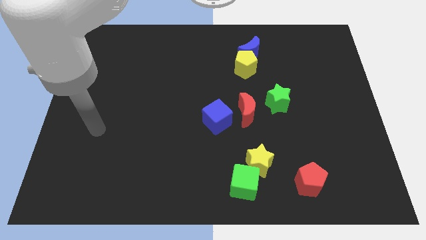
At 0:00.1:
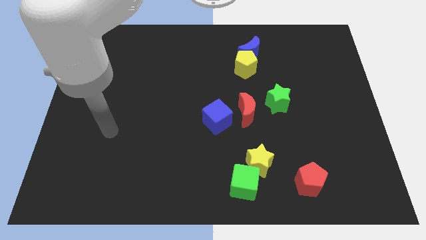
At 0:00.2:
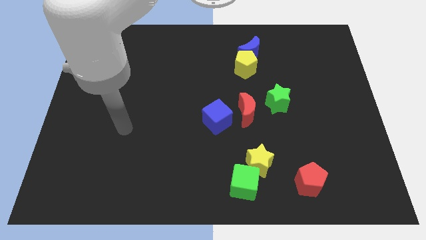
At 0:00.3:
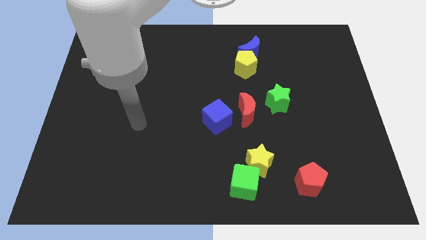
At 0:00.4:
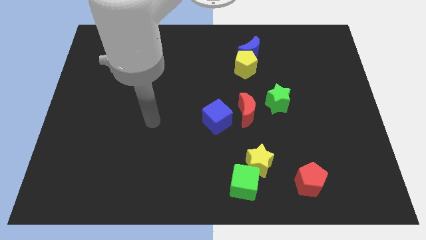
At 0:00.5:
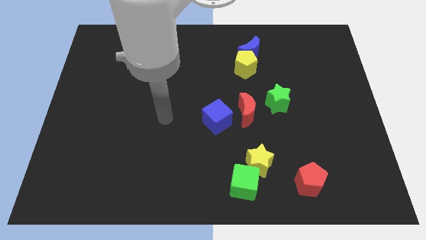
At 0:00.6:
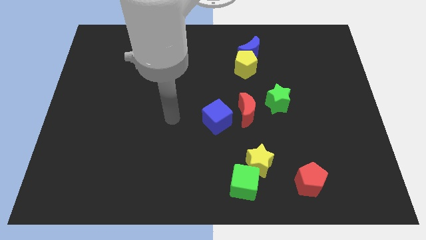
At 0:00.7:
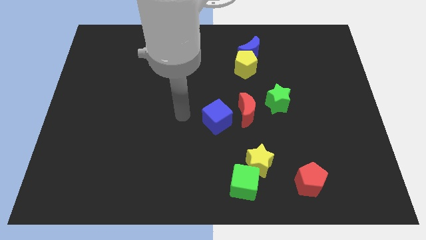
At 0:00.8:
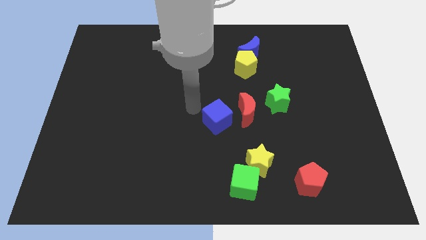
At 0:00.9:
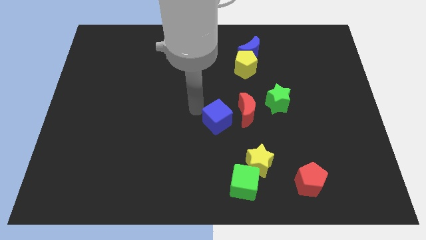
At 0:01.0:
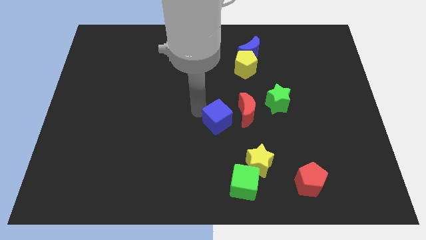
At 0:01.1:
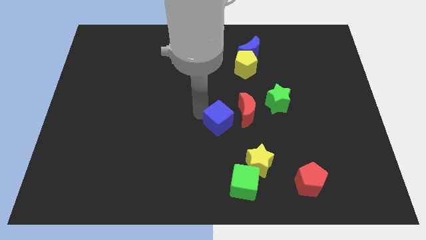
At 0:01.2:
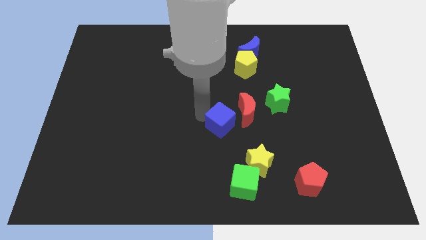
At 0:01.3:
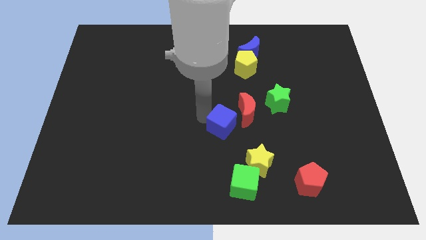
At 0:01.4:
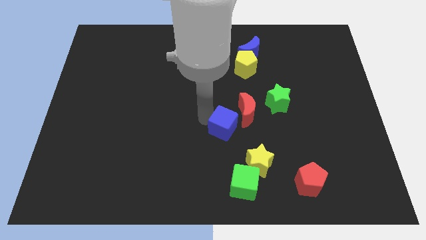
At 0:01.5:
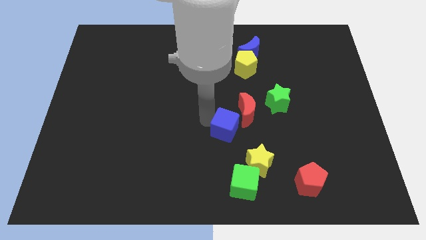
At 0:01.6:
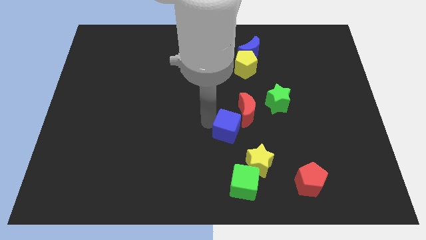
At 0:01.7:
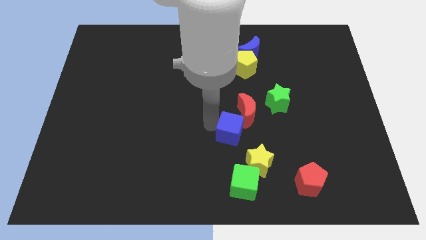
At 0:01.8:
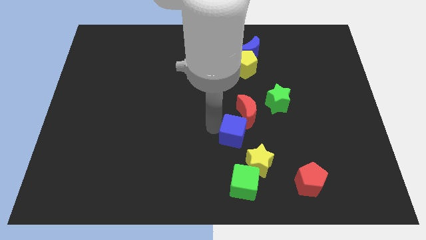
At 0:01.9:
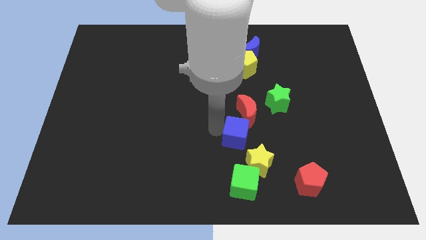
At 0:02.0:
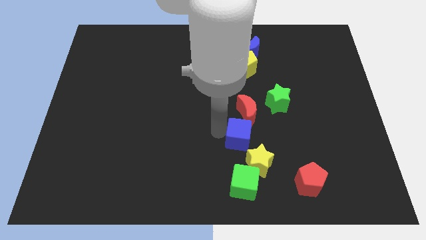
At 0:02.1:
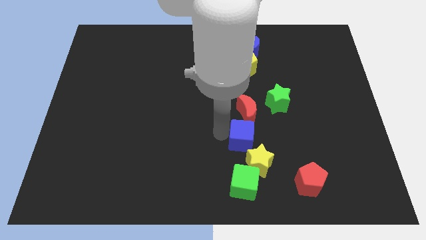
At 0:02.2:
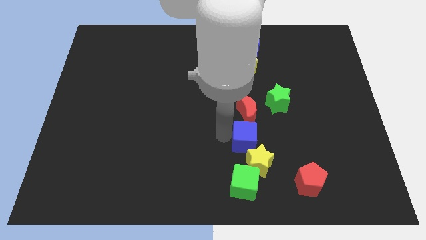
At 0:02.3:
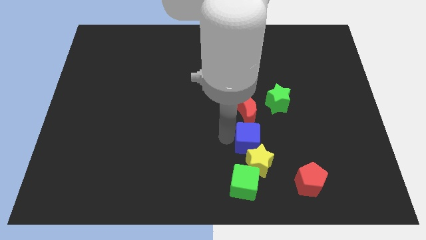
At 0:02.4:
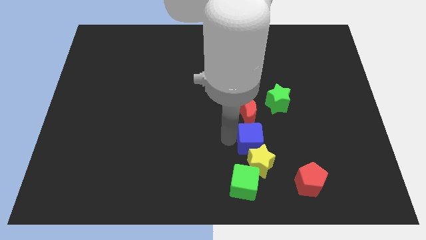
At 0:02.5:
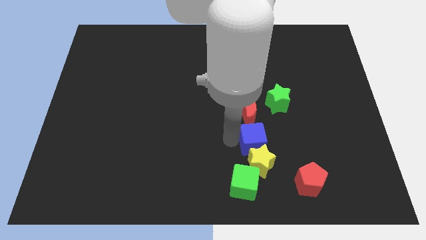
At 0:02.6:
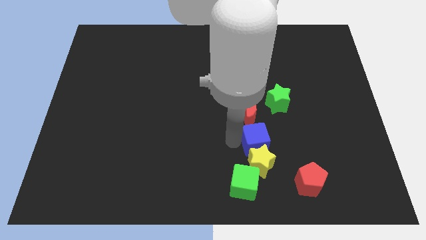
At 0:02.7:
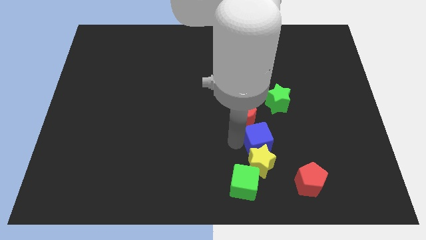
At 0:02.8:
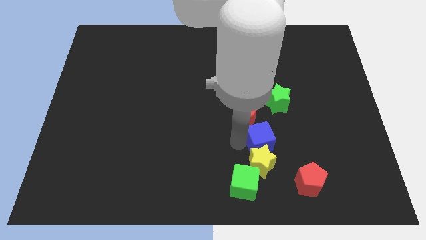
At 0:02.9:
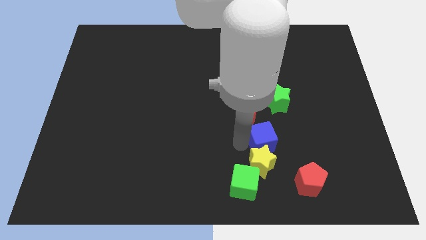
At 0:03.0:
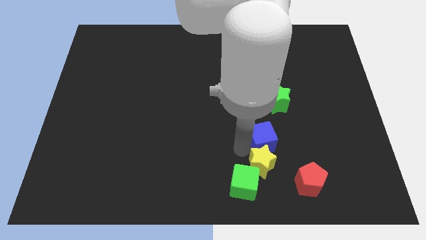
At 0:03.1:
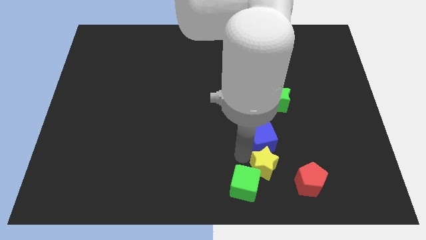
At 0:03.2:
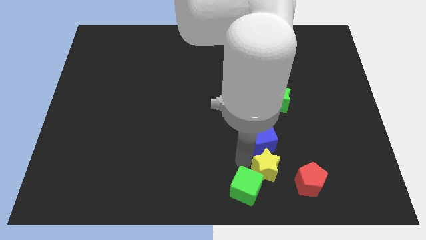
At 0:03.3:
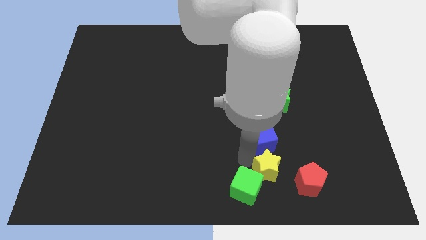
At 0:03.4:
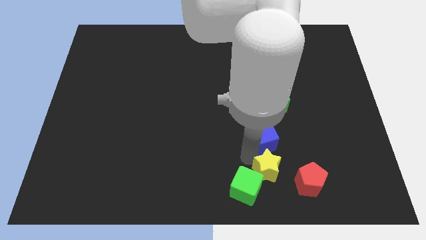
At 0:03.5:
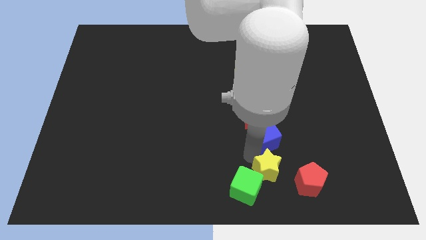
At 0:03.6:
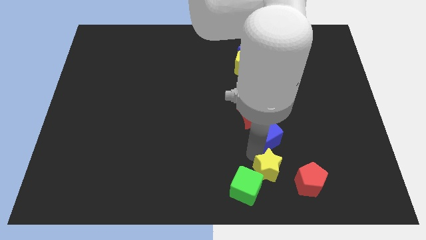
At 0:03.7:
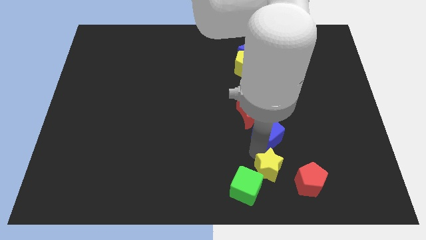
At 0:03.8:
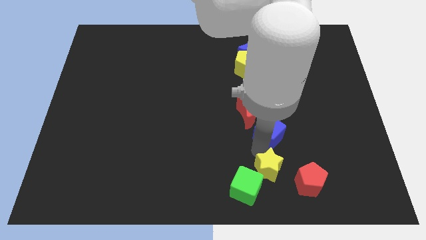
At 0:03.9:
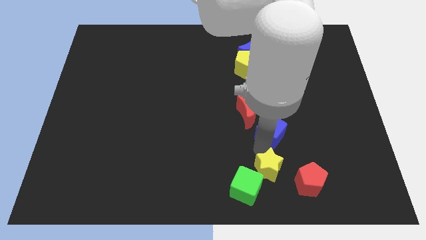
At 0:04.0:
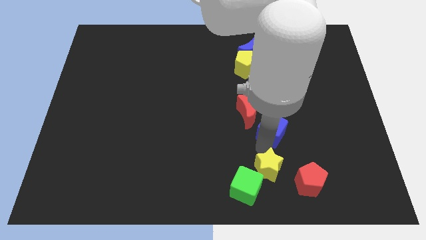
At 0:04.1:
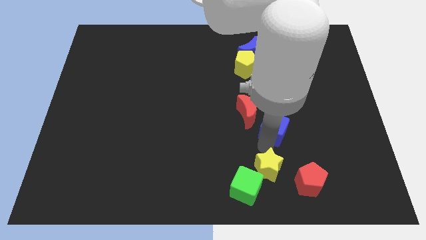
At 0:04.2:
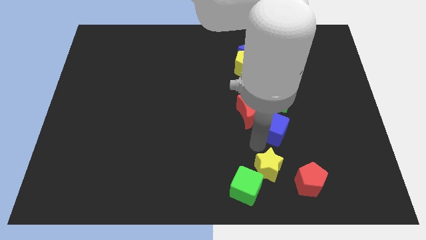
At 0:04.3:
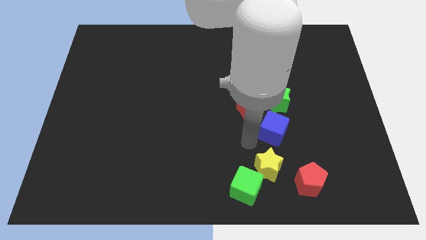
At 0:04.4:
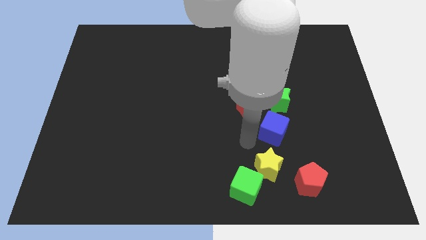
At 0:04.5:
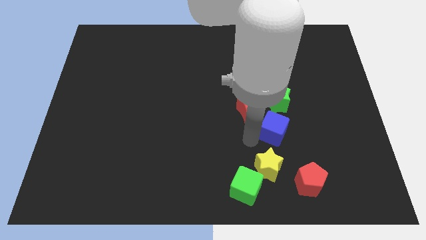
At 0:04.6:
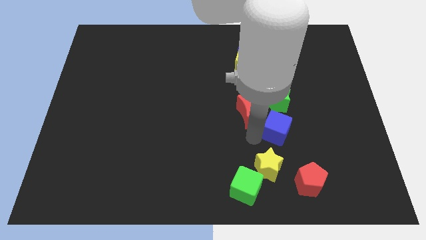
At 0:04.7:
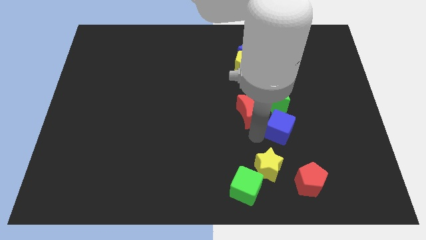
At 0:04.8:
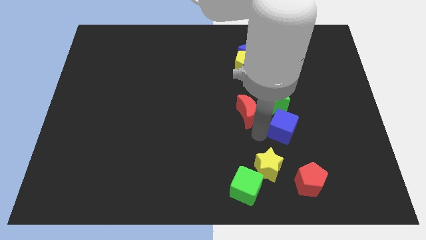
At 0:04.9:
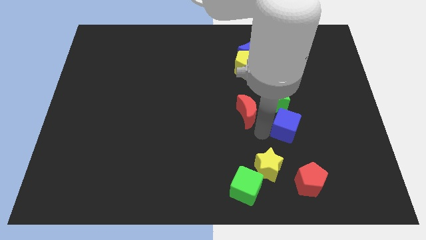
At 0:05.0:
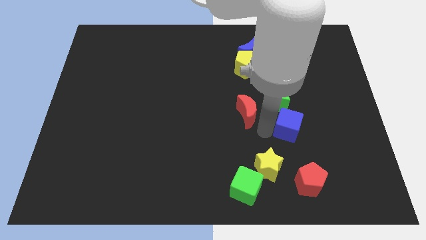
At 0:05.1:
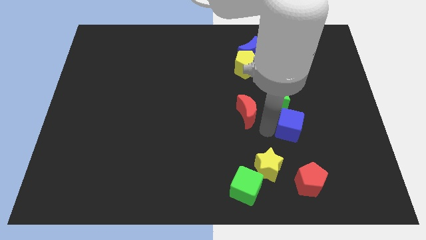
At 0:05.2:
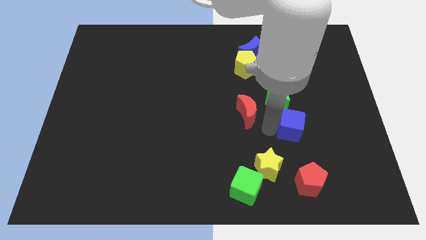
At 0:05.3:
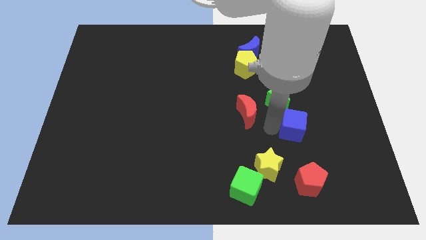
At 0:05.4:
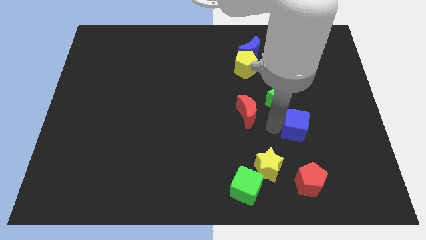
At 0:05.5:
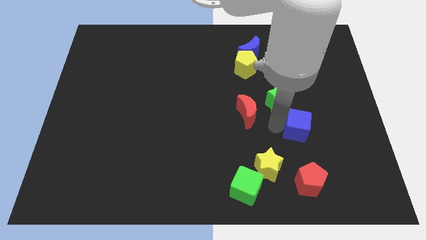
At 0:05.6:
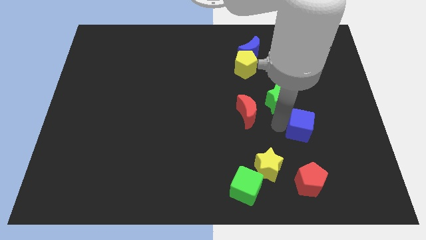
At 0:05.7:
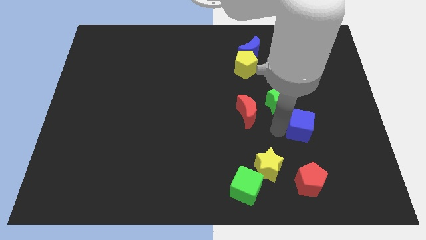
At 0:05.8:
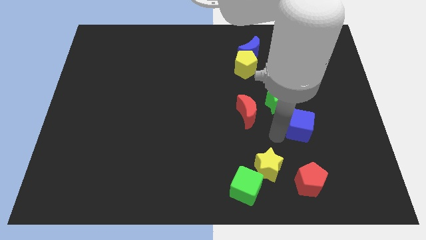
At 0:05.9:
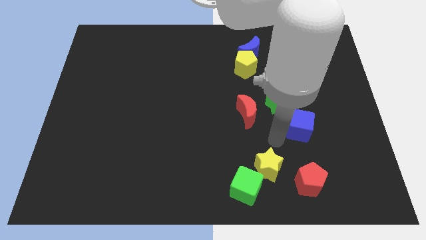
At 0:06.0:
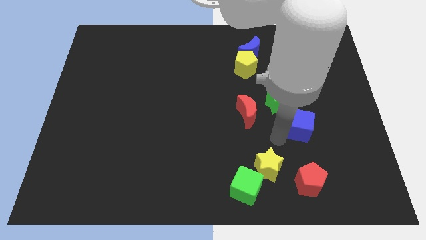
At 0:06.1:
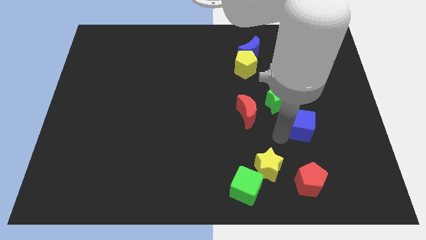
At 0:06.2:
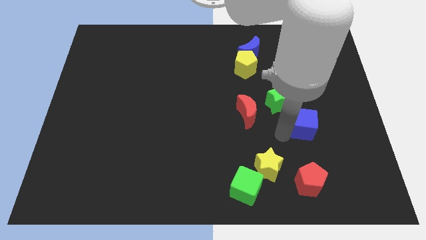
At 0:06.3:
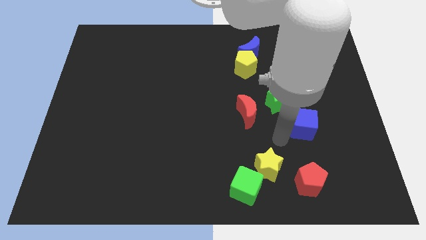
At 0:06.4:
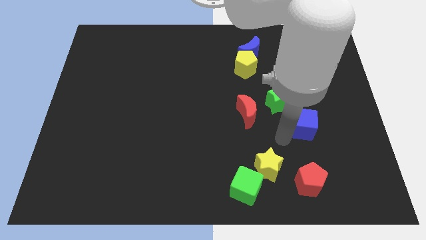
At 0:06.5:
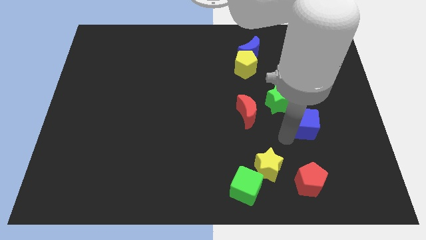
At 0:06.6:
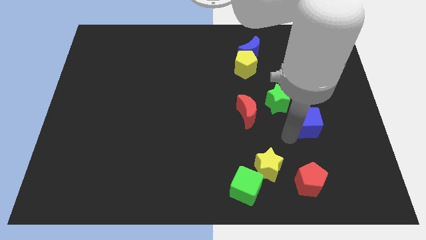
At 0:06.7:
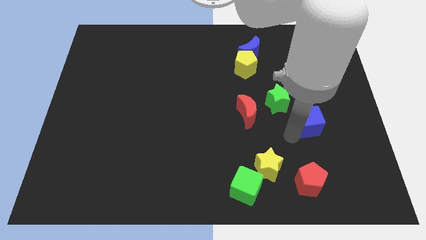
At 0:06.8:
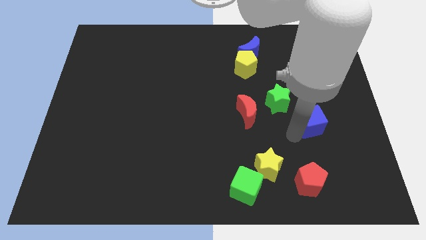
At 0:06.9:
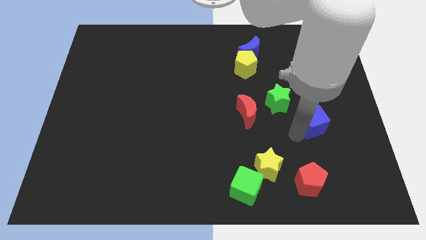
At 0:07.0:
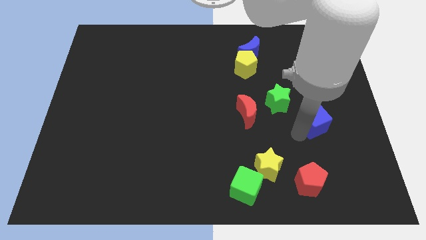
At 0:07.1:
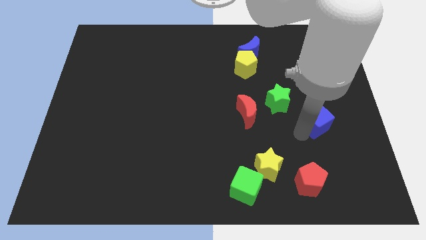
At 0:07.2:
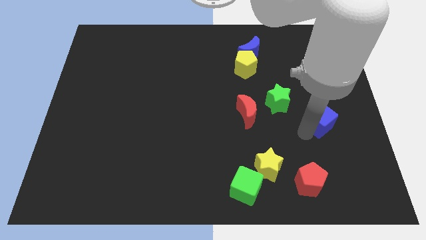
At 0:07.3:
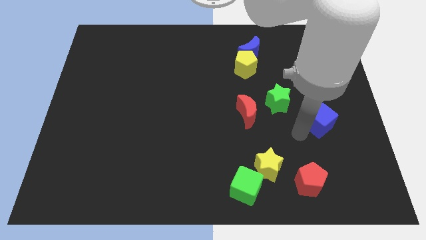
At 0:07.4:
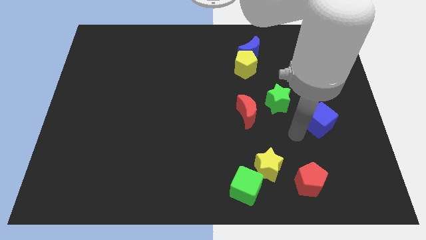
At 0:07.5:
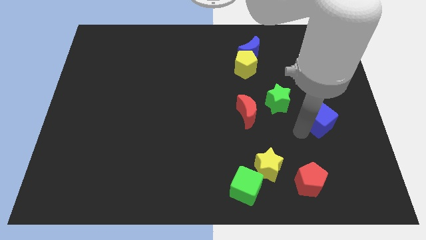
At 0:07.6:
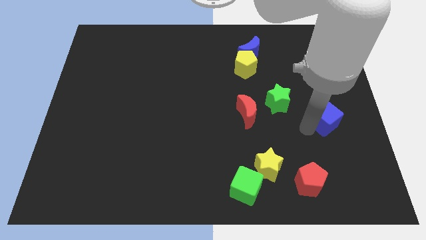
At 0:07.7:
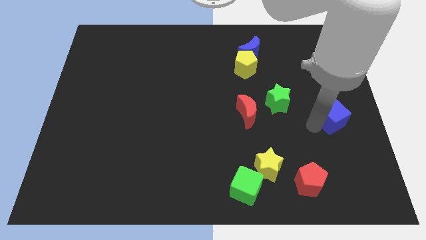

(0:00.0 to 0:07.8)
slide the blue cube to the right side
